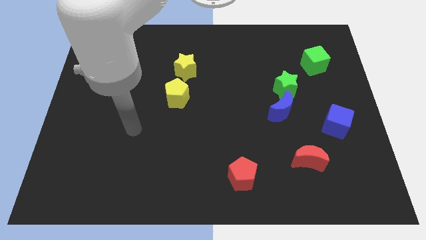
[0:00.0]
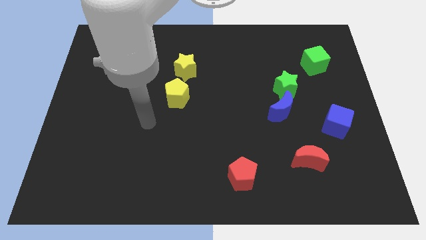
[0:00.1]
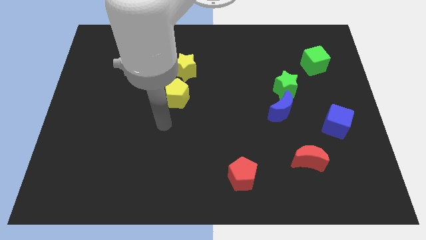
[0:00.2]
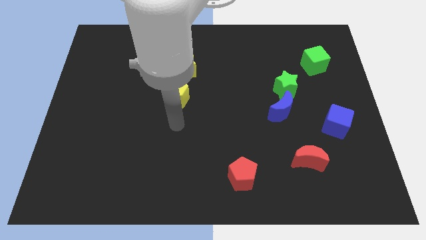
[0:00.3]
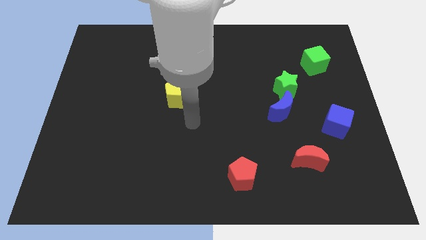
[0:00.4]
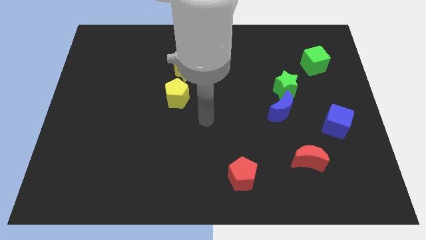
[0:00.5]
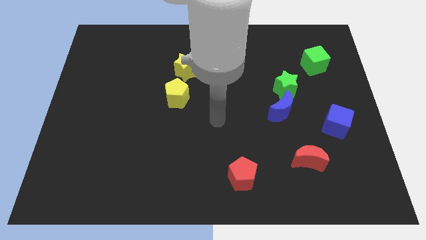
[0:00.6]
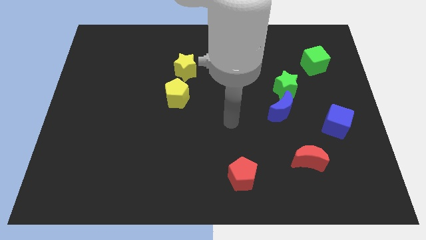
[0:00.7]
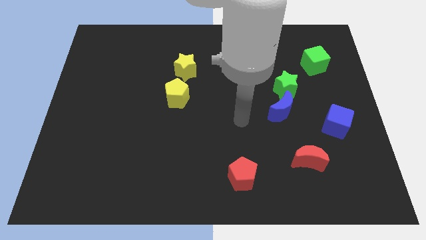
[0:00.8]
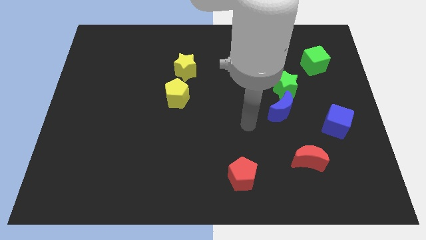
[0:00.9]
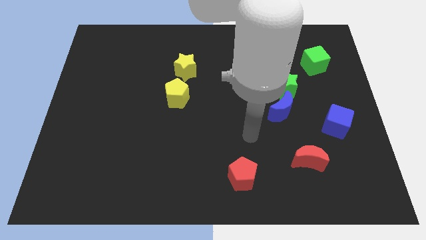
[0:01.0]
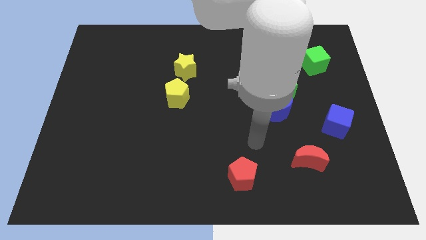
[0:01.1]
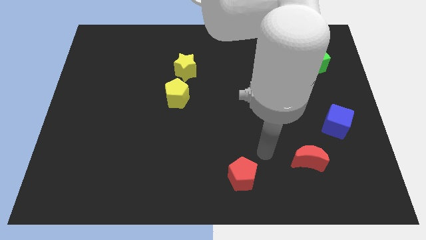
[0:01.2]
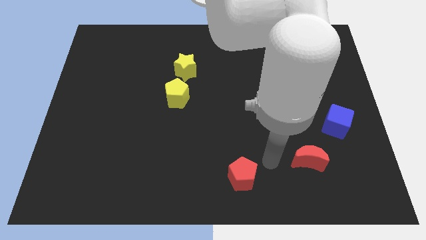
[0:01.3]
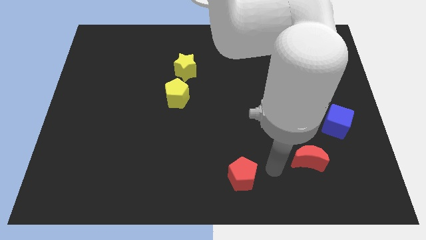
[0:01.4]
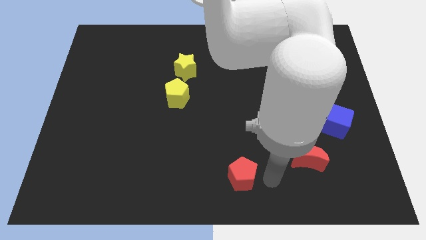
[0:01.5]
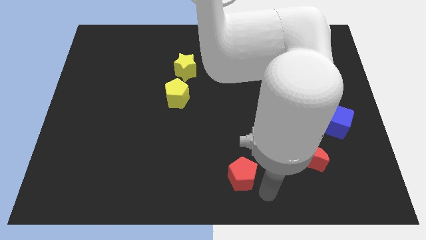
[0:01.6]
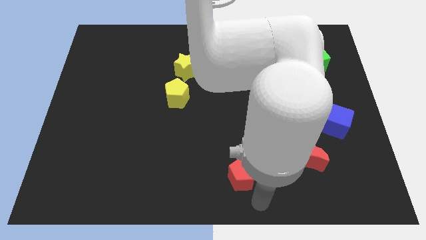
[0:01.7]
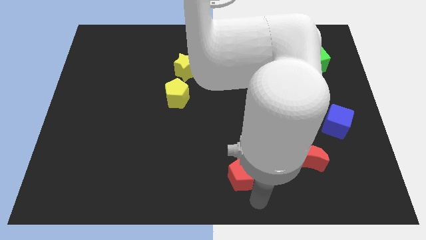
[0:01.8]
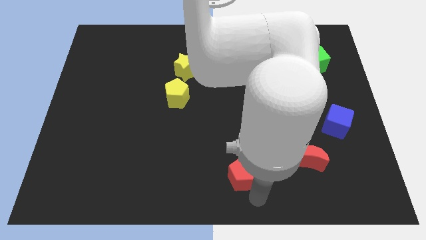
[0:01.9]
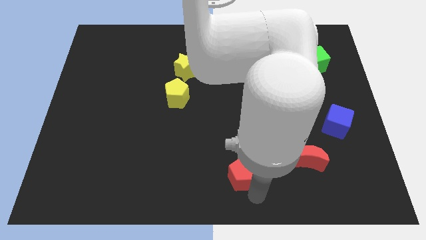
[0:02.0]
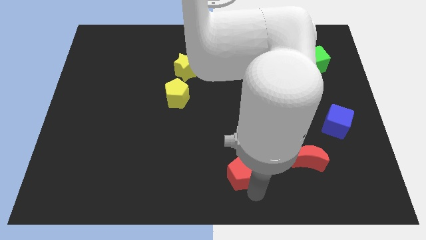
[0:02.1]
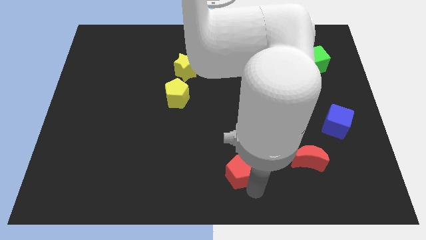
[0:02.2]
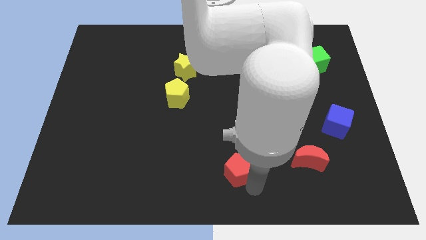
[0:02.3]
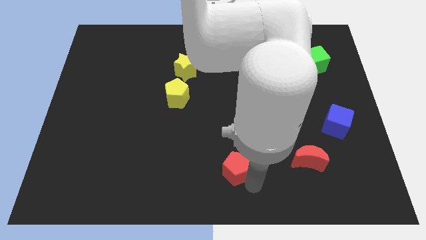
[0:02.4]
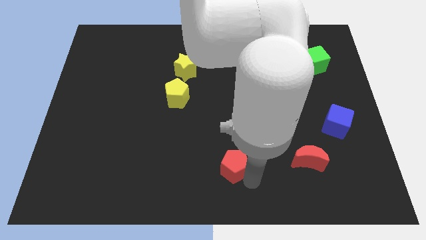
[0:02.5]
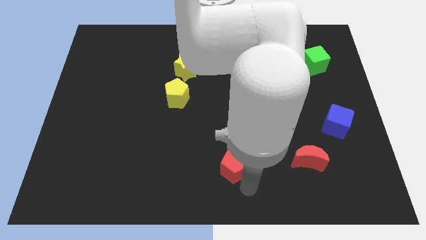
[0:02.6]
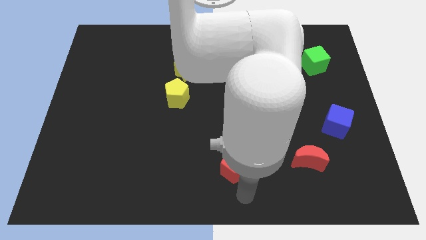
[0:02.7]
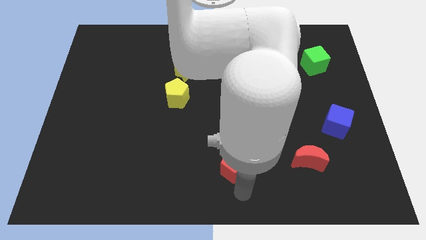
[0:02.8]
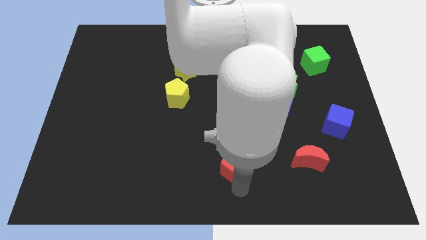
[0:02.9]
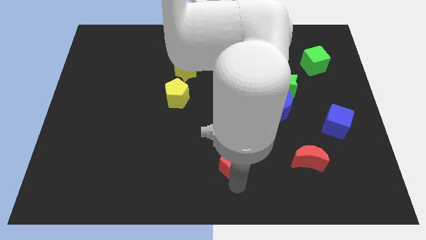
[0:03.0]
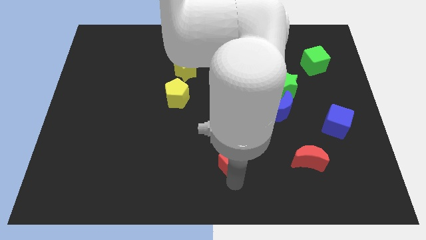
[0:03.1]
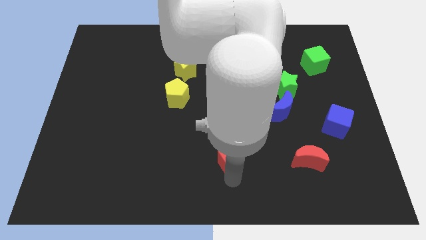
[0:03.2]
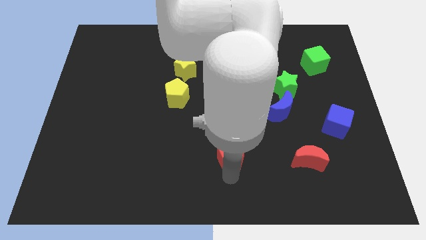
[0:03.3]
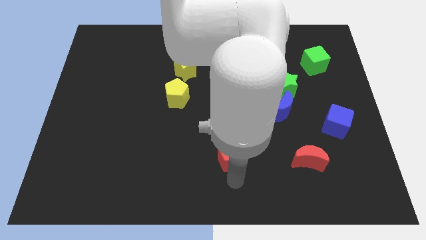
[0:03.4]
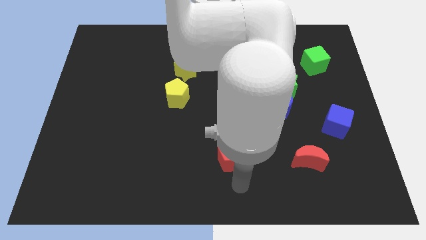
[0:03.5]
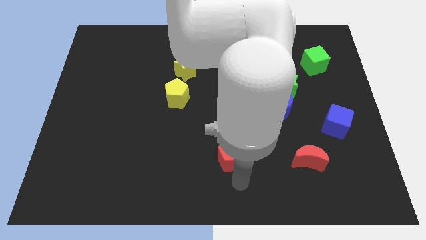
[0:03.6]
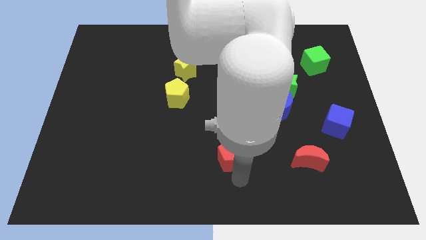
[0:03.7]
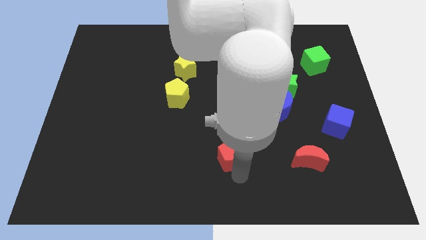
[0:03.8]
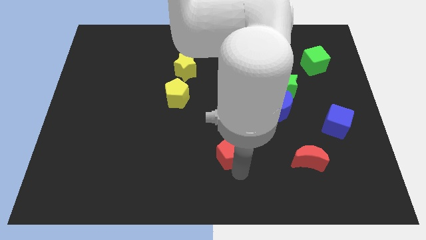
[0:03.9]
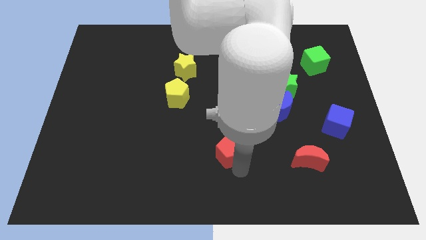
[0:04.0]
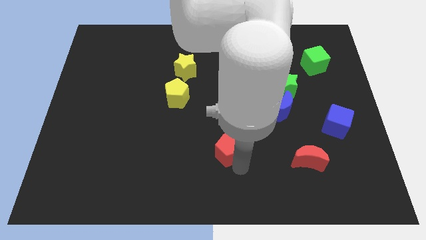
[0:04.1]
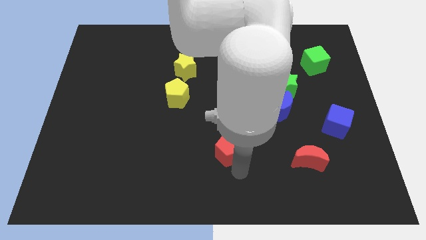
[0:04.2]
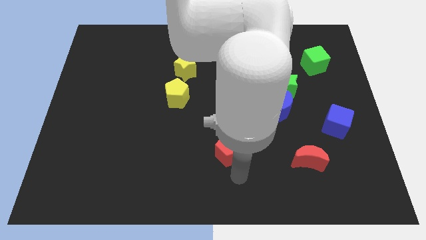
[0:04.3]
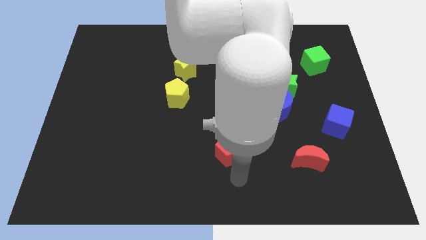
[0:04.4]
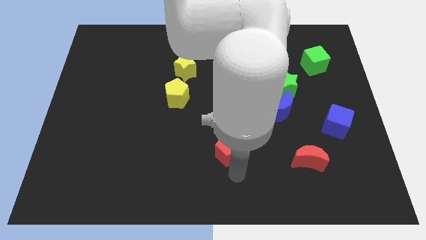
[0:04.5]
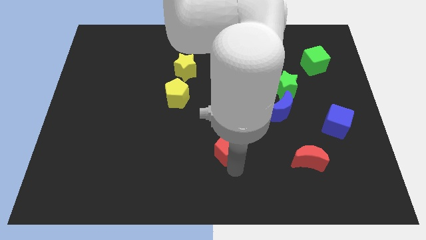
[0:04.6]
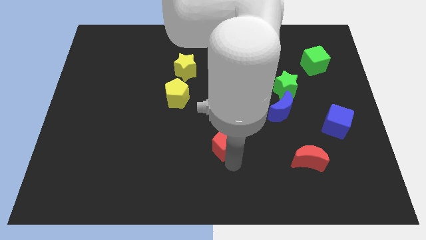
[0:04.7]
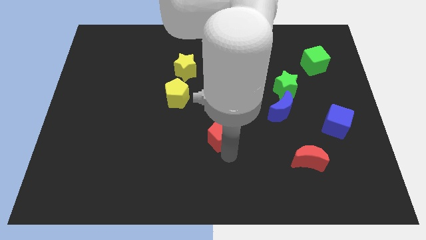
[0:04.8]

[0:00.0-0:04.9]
push the red pentagon to the center

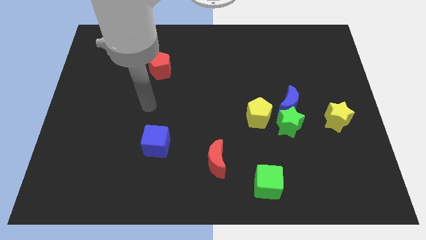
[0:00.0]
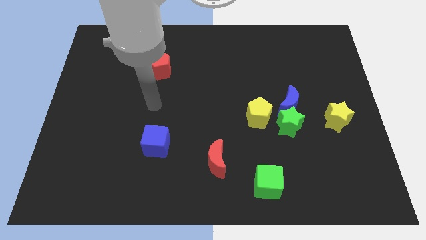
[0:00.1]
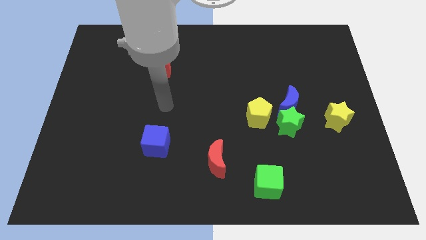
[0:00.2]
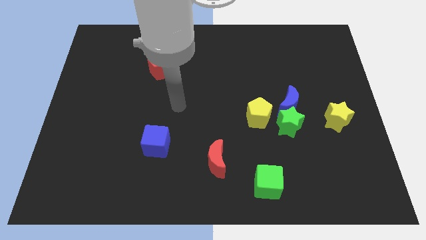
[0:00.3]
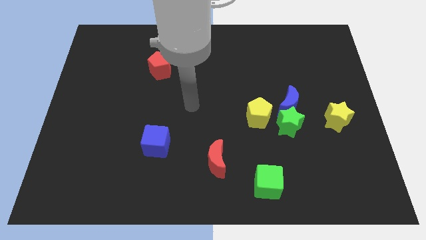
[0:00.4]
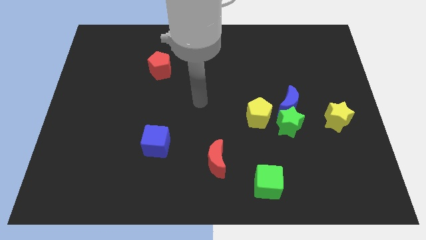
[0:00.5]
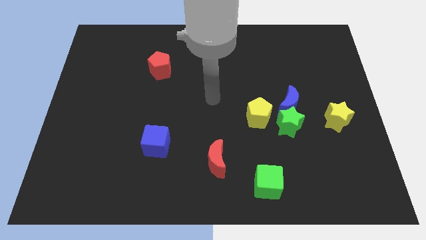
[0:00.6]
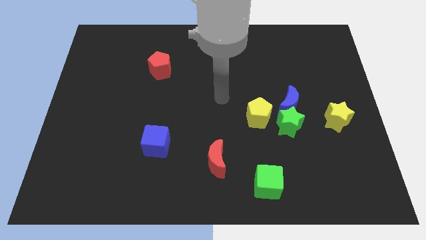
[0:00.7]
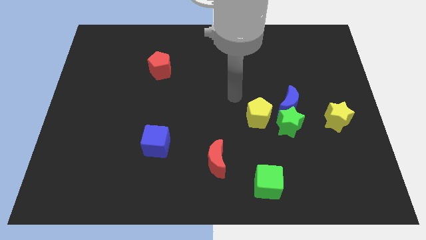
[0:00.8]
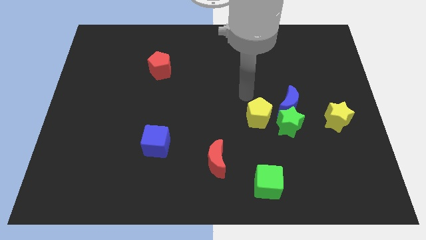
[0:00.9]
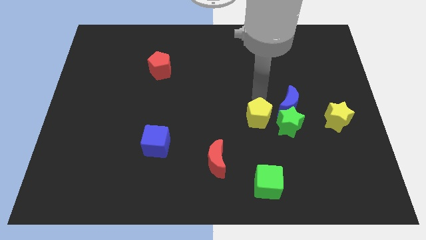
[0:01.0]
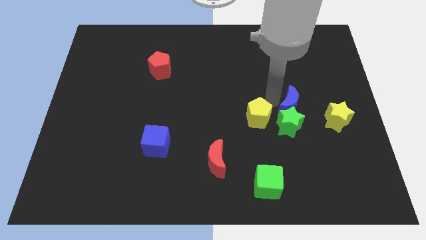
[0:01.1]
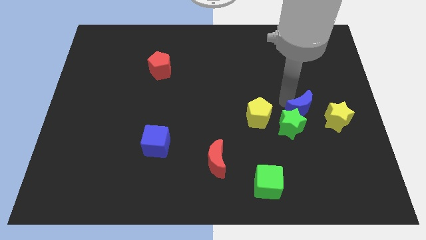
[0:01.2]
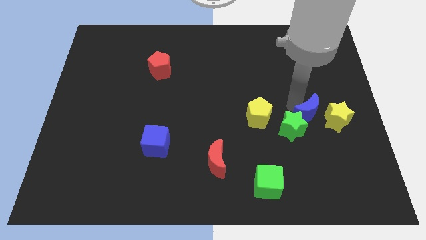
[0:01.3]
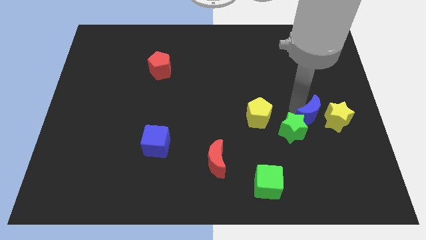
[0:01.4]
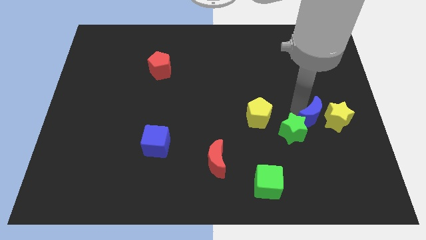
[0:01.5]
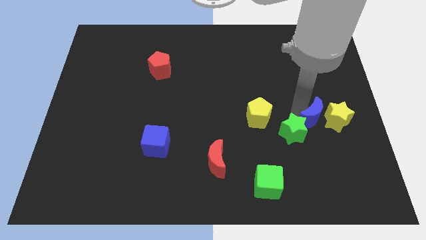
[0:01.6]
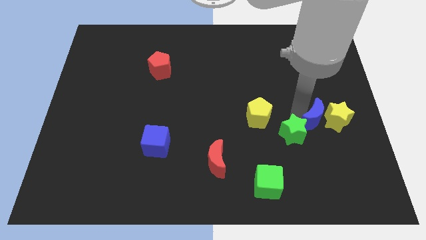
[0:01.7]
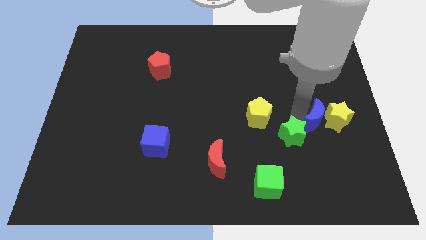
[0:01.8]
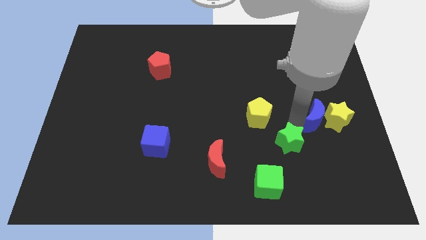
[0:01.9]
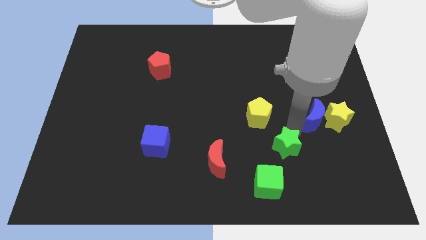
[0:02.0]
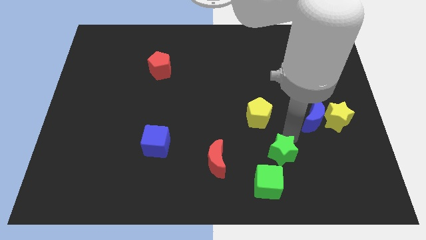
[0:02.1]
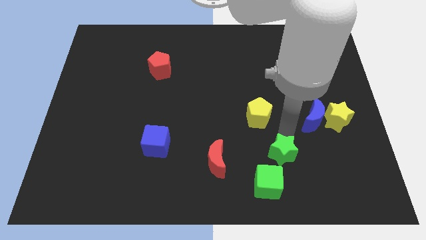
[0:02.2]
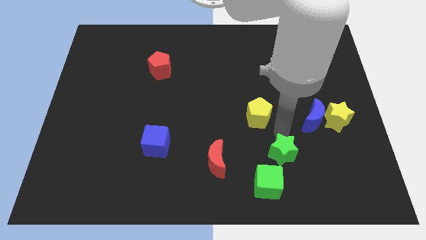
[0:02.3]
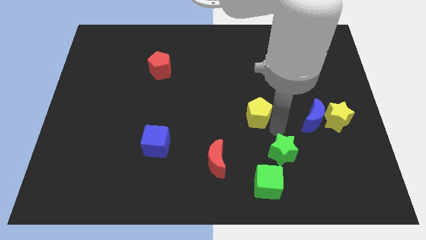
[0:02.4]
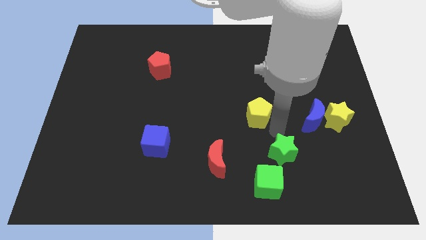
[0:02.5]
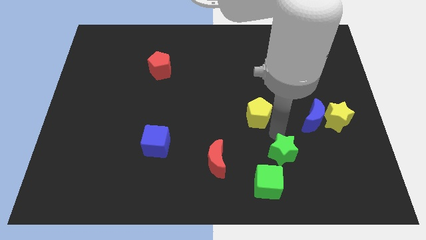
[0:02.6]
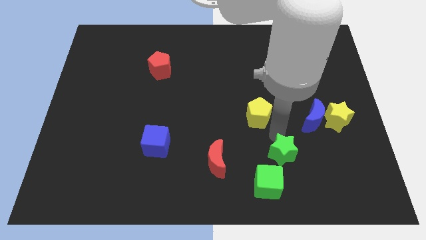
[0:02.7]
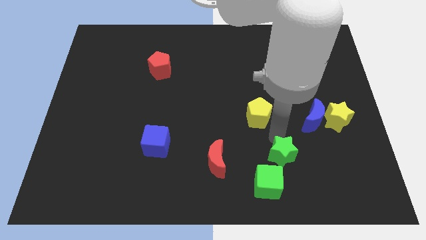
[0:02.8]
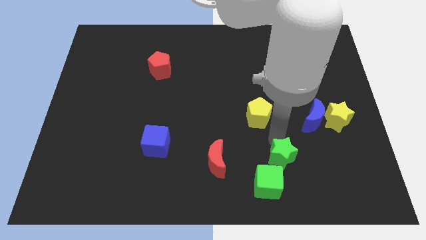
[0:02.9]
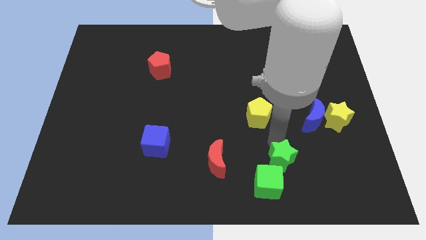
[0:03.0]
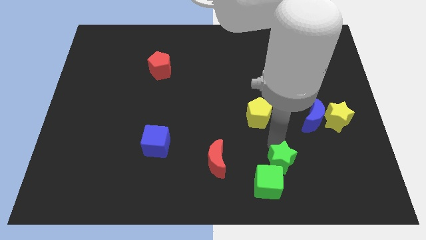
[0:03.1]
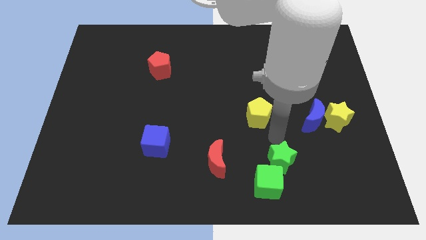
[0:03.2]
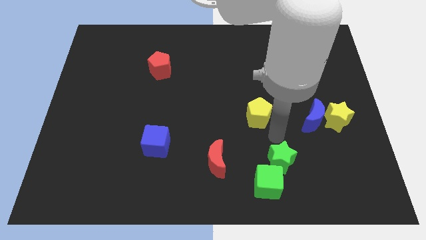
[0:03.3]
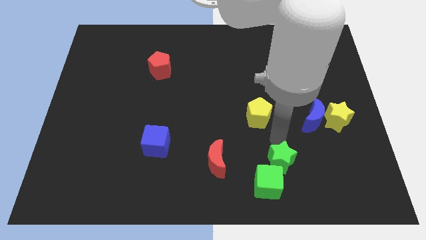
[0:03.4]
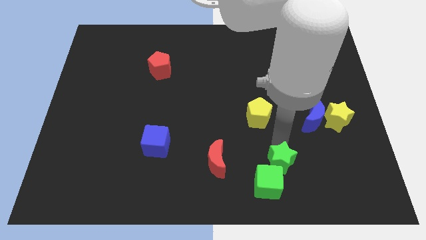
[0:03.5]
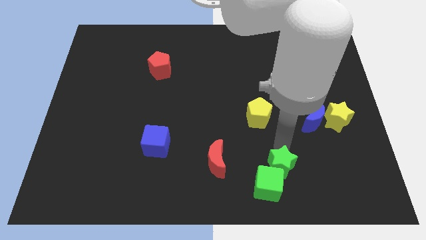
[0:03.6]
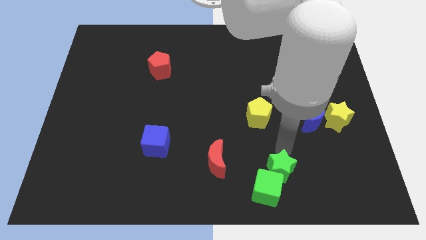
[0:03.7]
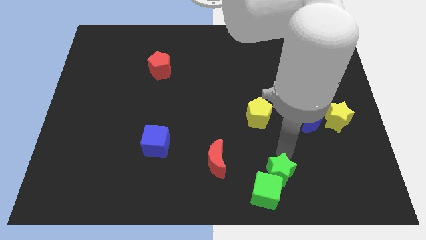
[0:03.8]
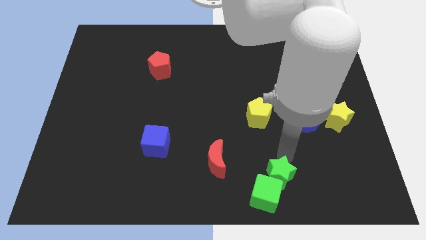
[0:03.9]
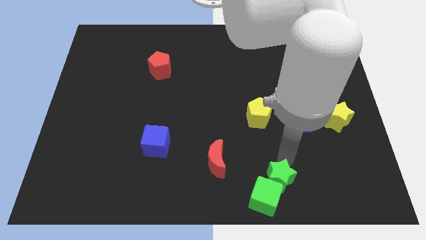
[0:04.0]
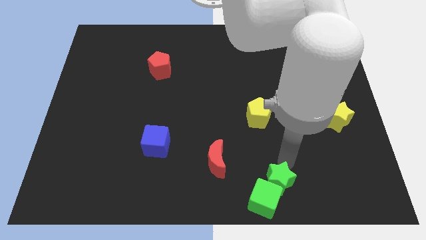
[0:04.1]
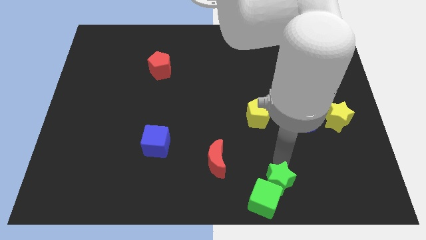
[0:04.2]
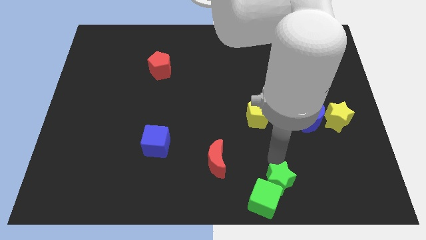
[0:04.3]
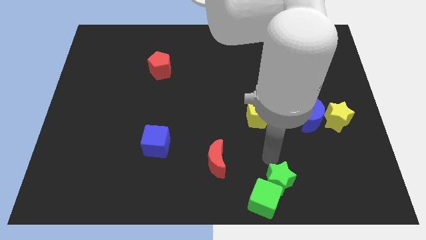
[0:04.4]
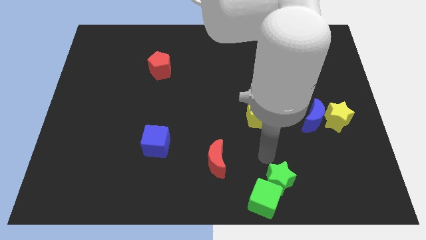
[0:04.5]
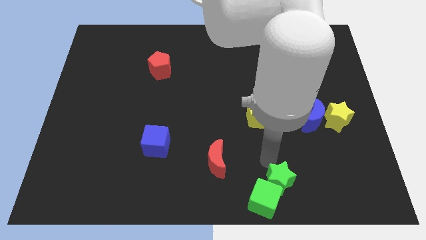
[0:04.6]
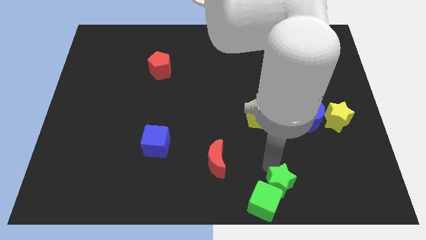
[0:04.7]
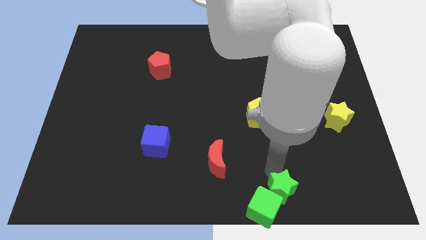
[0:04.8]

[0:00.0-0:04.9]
slide the green star to the bottom side
